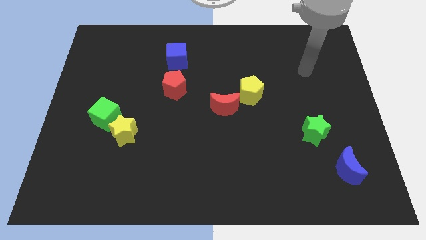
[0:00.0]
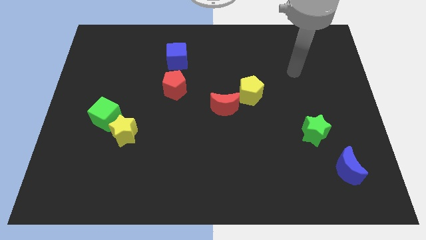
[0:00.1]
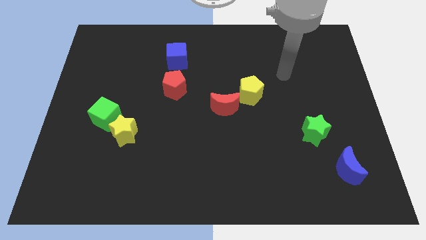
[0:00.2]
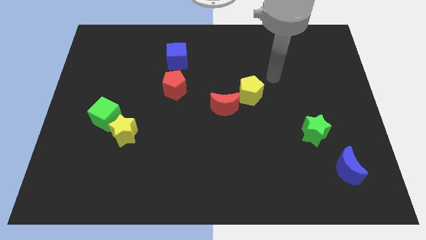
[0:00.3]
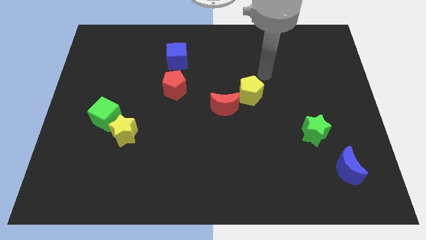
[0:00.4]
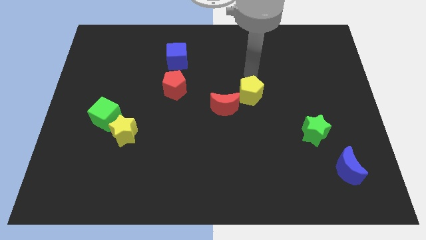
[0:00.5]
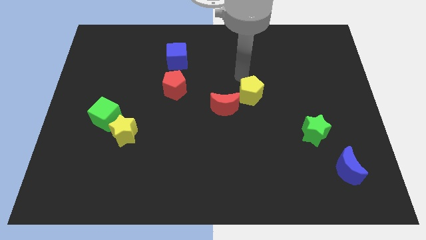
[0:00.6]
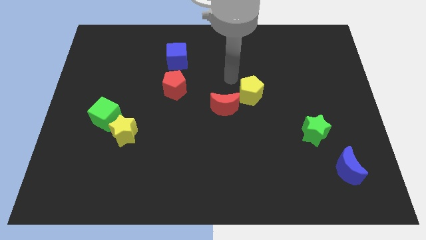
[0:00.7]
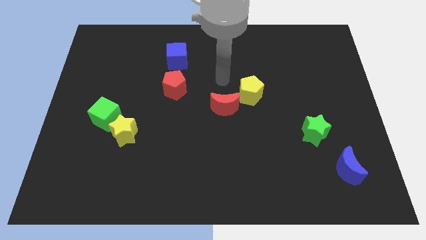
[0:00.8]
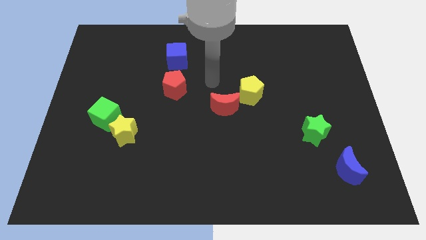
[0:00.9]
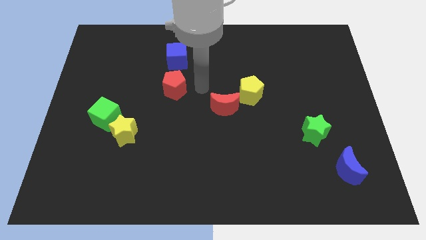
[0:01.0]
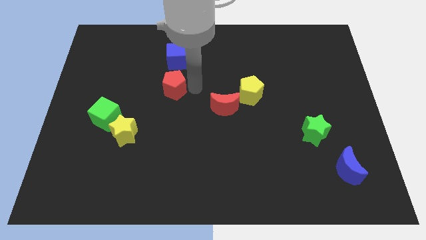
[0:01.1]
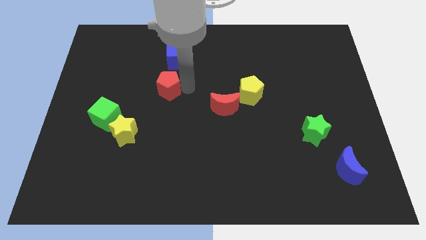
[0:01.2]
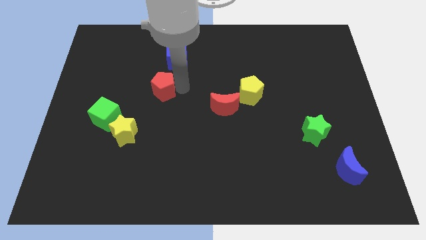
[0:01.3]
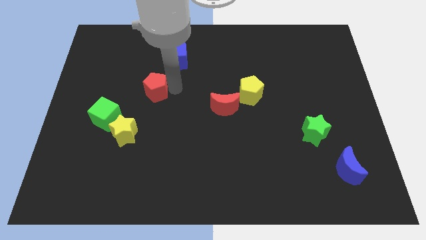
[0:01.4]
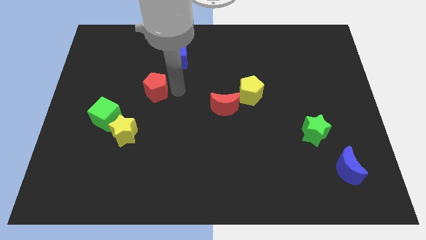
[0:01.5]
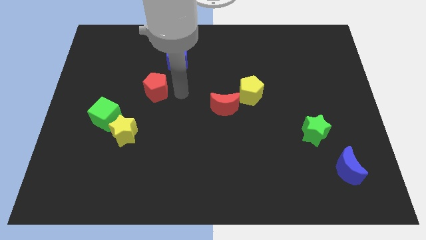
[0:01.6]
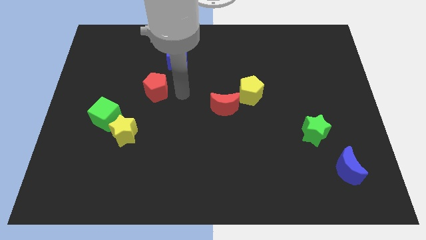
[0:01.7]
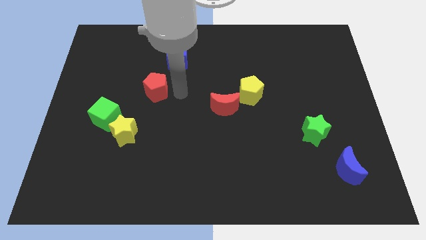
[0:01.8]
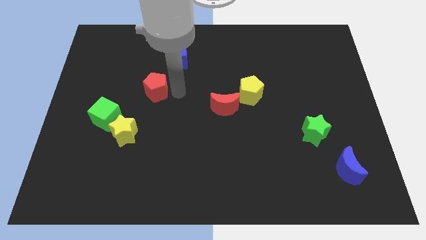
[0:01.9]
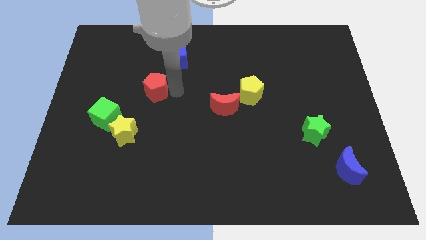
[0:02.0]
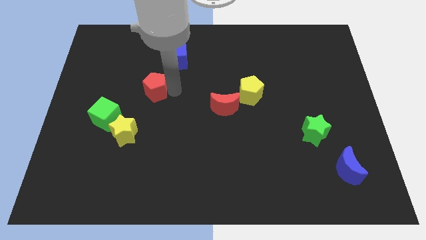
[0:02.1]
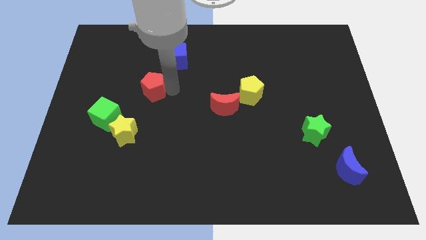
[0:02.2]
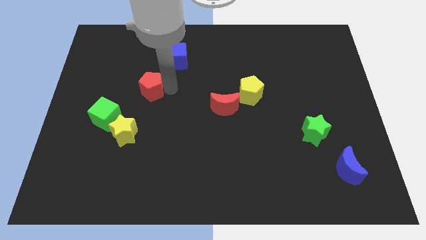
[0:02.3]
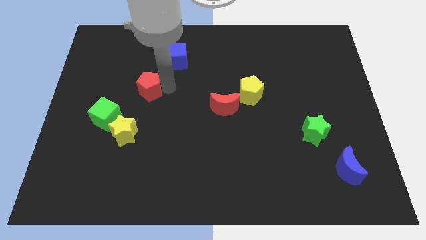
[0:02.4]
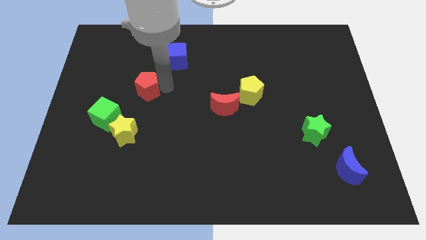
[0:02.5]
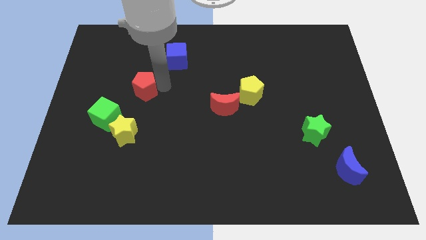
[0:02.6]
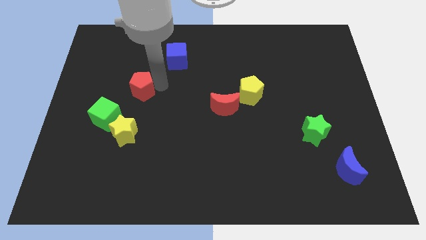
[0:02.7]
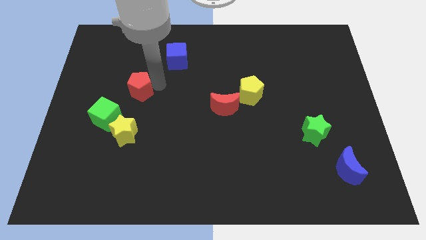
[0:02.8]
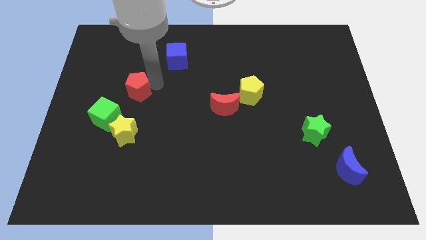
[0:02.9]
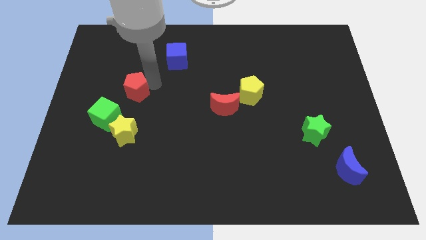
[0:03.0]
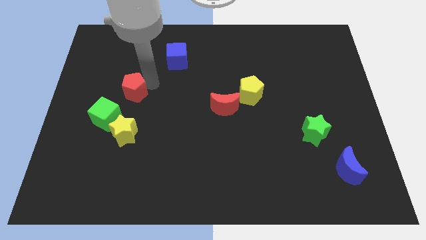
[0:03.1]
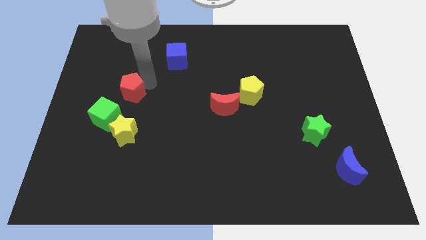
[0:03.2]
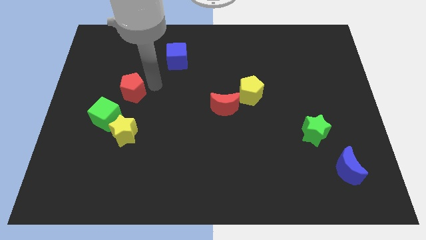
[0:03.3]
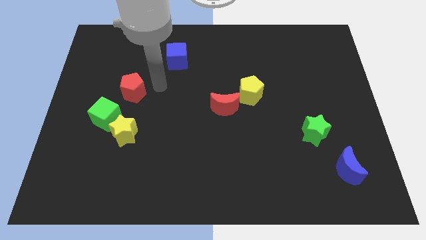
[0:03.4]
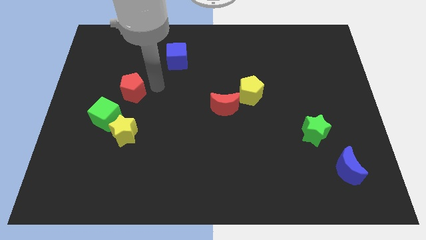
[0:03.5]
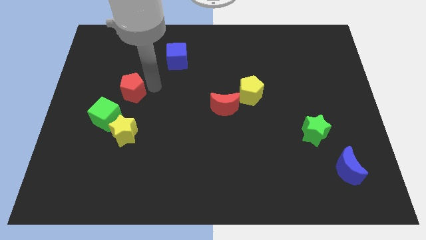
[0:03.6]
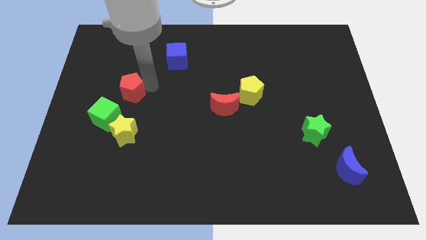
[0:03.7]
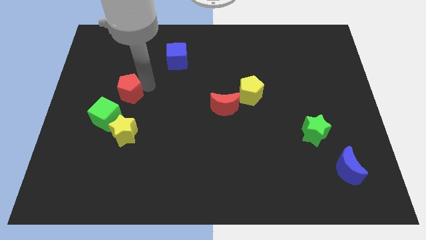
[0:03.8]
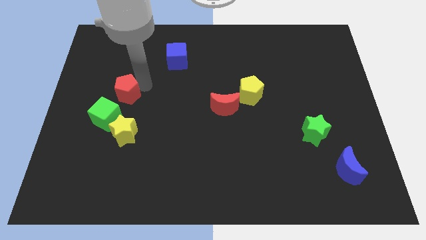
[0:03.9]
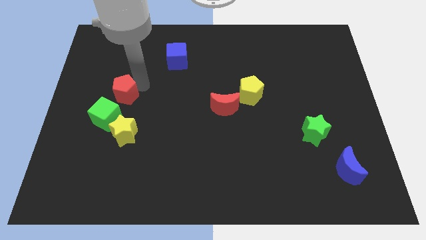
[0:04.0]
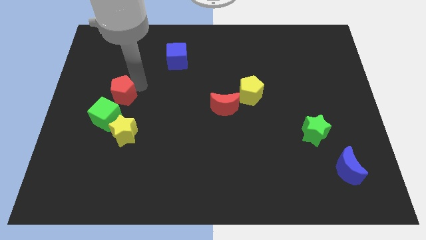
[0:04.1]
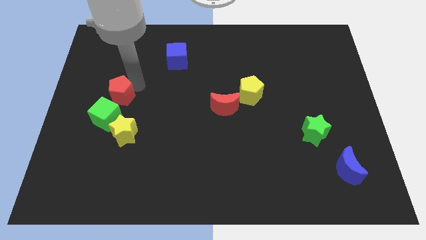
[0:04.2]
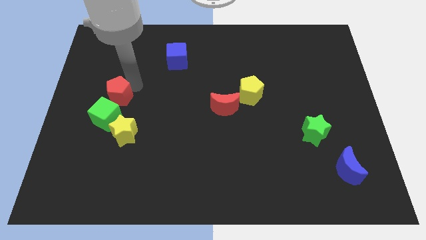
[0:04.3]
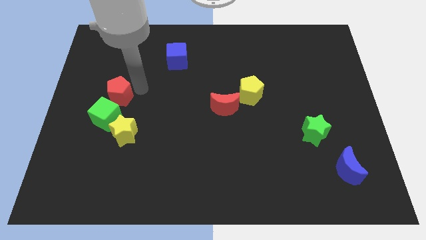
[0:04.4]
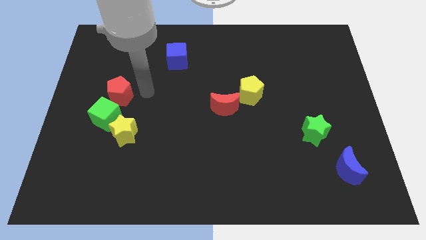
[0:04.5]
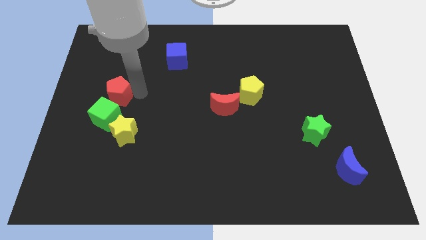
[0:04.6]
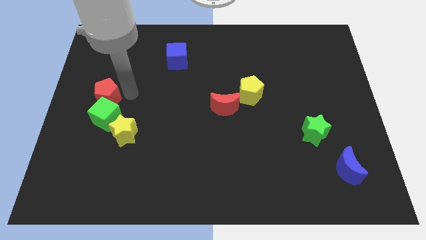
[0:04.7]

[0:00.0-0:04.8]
push the red pentagon to the left side of the board

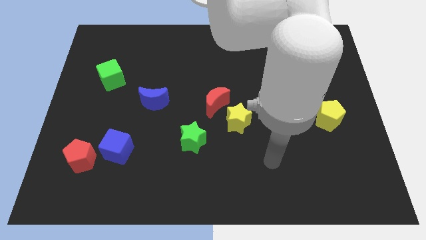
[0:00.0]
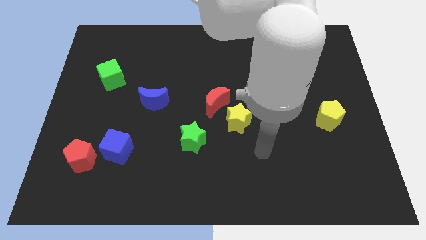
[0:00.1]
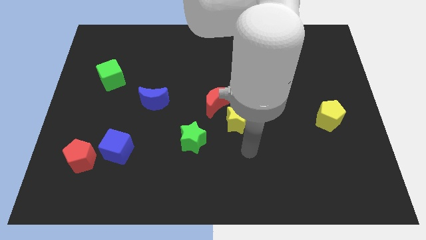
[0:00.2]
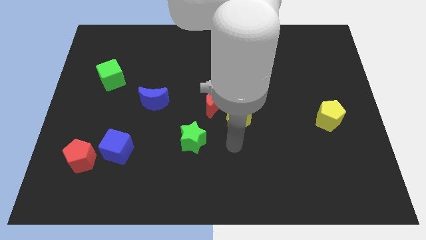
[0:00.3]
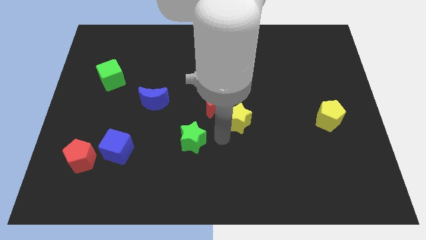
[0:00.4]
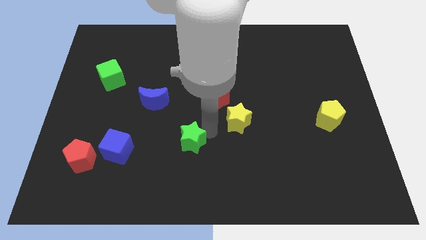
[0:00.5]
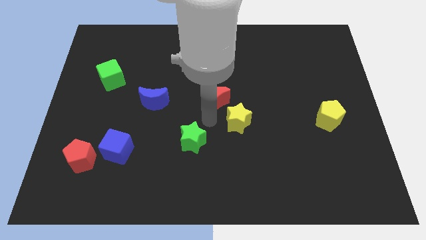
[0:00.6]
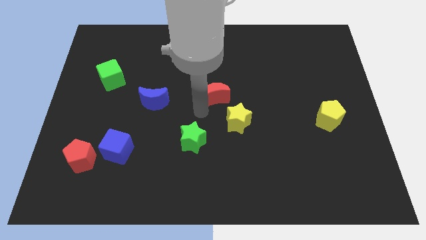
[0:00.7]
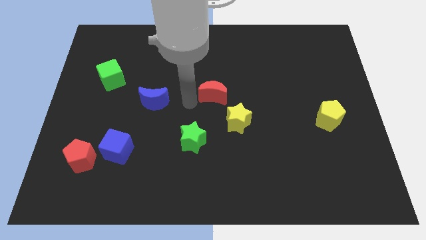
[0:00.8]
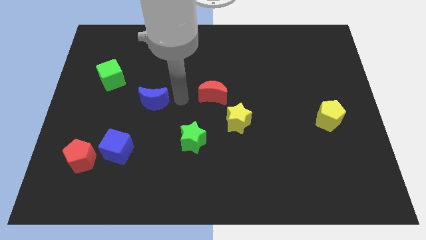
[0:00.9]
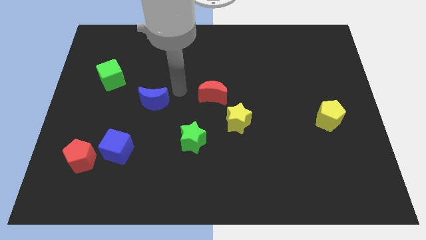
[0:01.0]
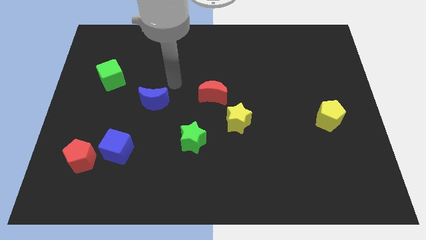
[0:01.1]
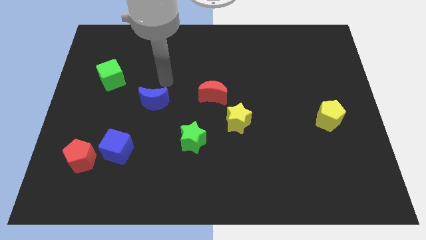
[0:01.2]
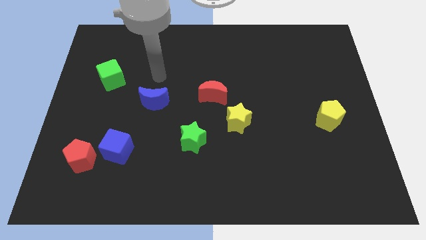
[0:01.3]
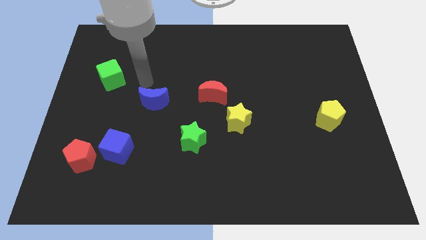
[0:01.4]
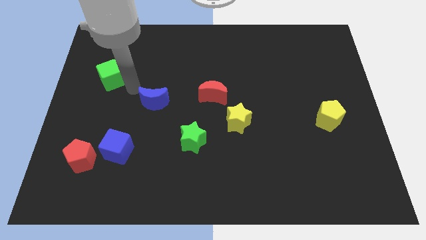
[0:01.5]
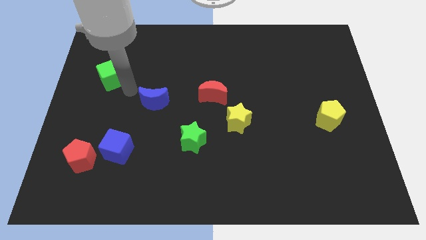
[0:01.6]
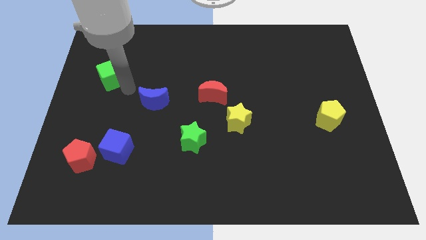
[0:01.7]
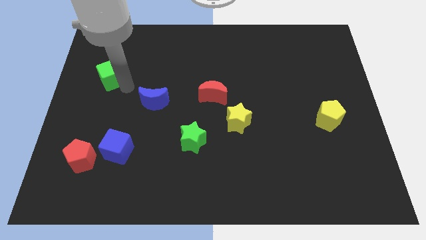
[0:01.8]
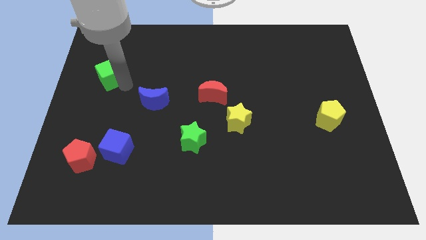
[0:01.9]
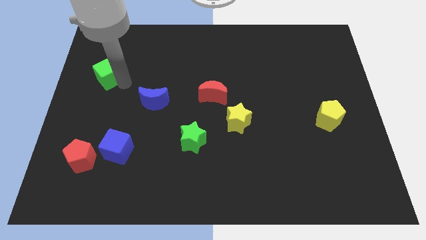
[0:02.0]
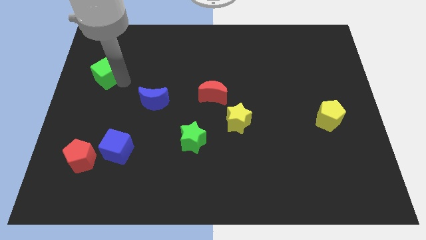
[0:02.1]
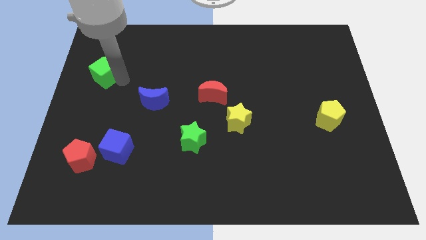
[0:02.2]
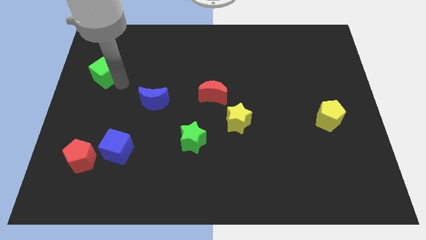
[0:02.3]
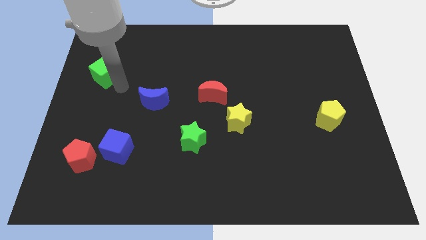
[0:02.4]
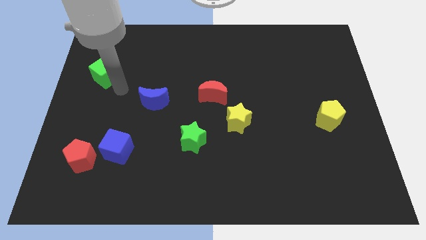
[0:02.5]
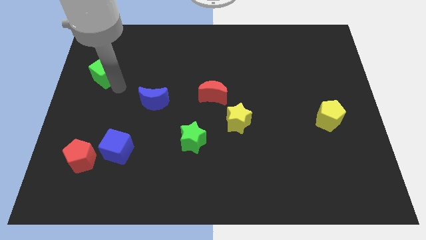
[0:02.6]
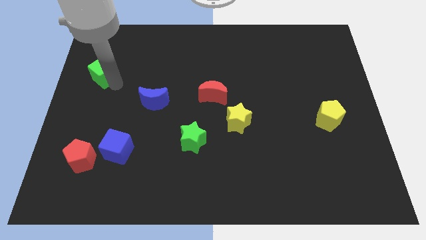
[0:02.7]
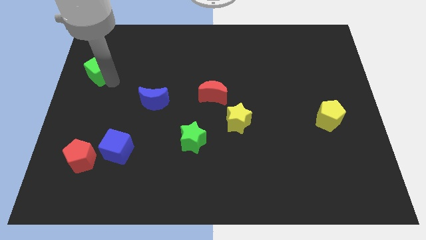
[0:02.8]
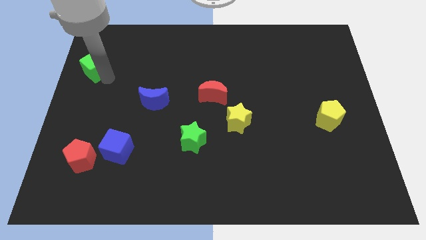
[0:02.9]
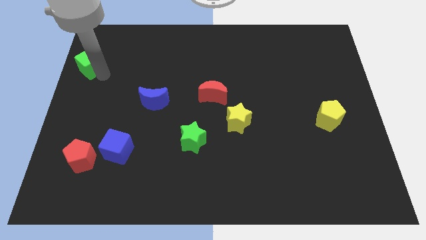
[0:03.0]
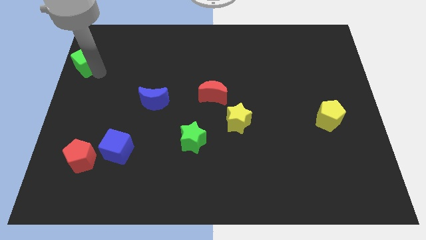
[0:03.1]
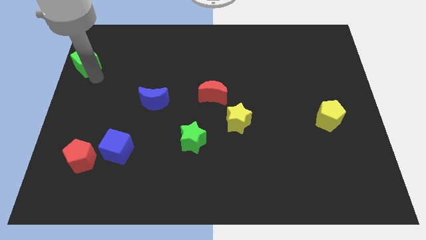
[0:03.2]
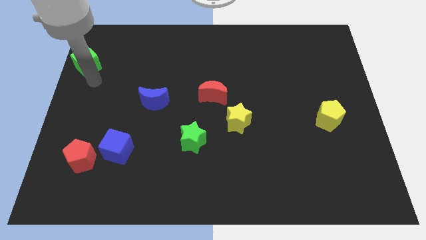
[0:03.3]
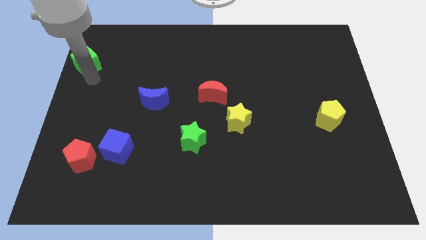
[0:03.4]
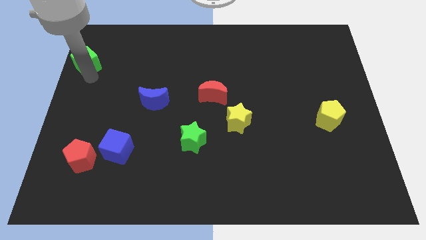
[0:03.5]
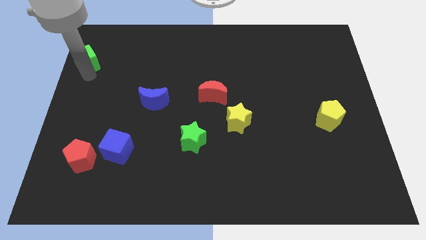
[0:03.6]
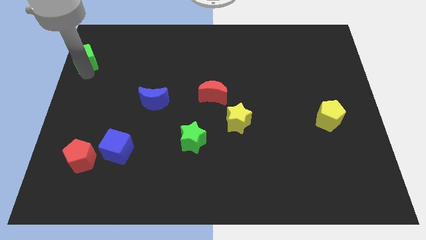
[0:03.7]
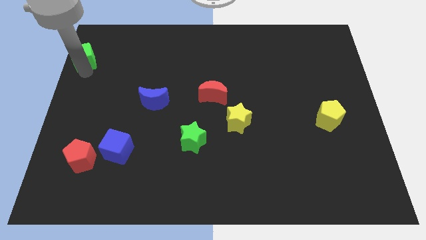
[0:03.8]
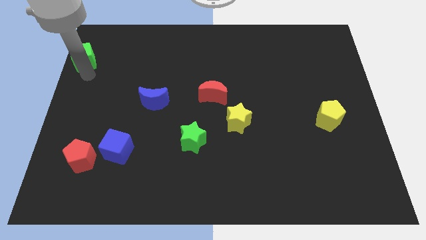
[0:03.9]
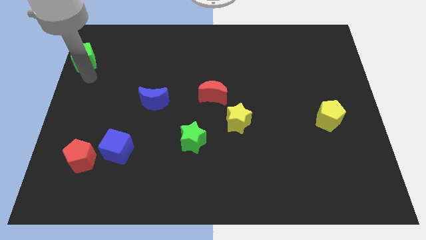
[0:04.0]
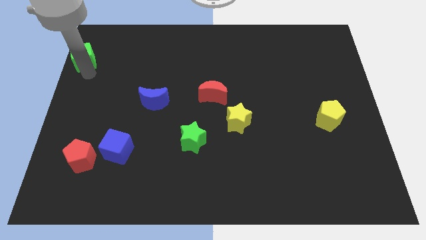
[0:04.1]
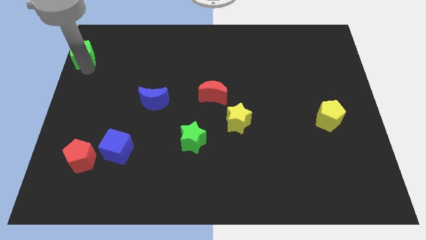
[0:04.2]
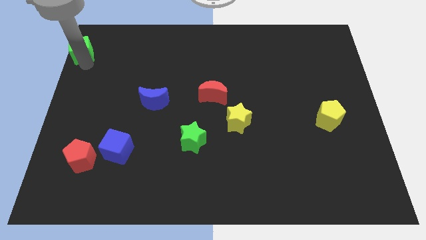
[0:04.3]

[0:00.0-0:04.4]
push the green cube to the upper left corner
